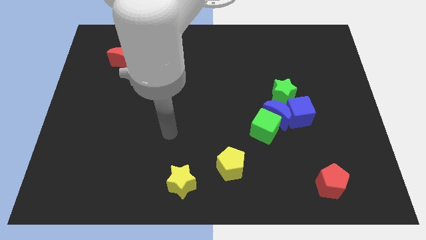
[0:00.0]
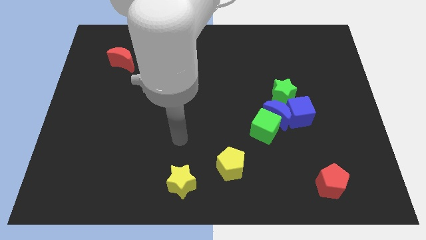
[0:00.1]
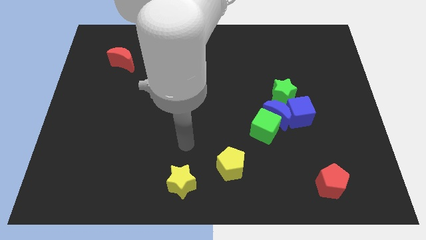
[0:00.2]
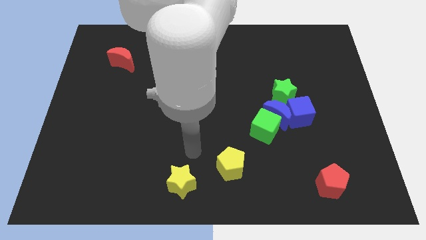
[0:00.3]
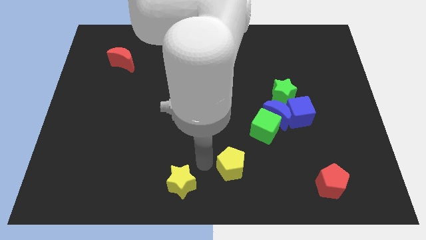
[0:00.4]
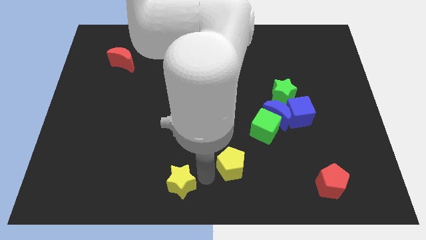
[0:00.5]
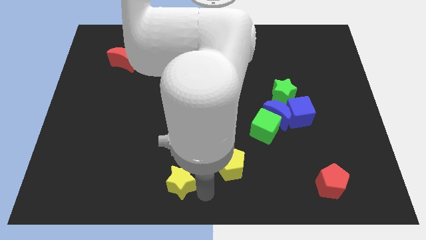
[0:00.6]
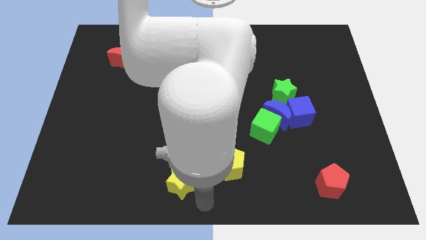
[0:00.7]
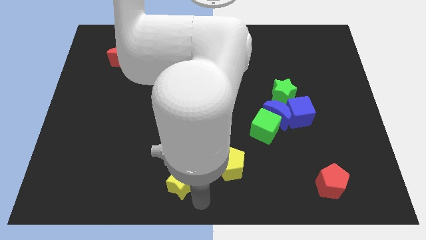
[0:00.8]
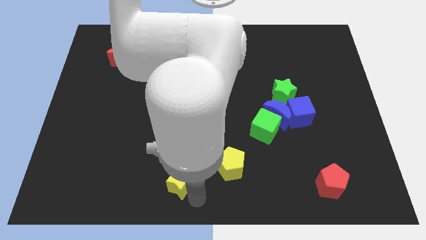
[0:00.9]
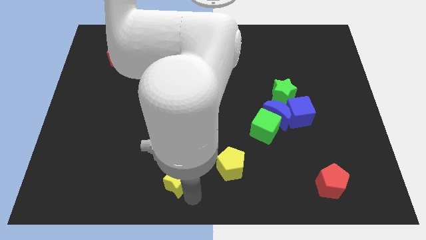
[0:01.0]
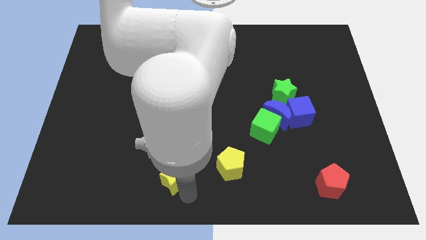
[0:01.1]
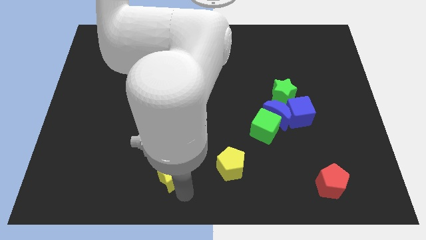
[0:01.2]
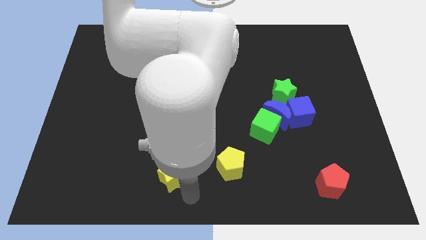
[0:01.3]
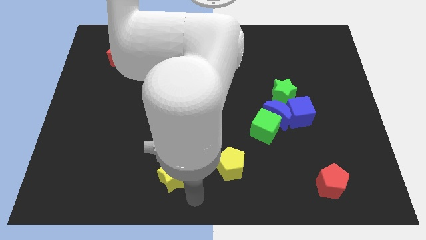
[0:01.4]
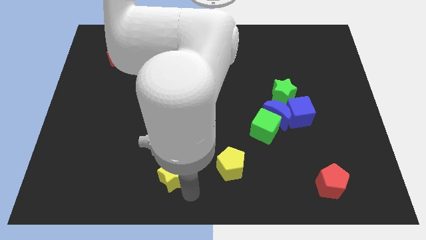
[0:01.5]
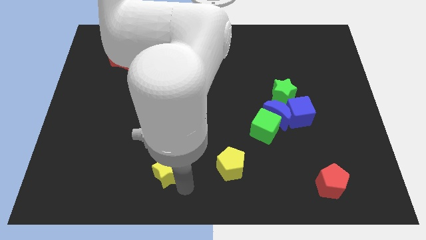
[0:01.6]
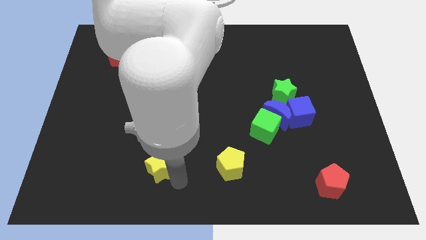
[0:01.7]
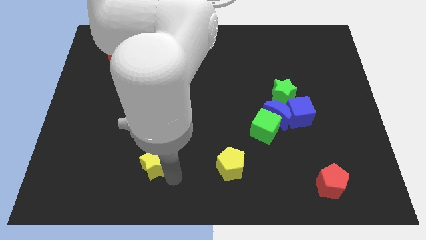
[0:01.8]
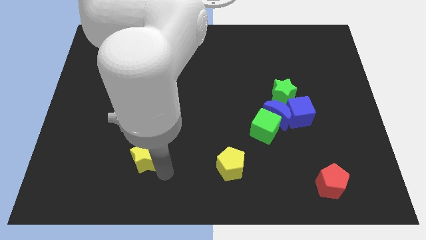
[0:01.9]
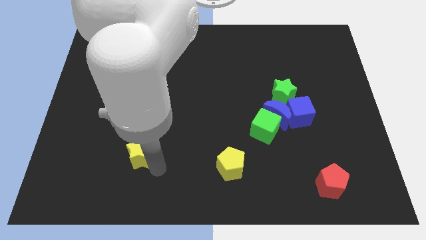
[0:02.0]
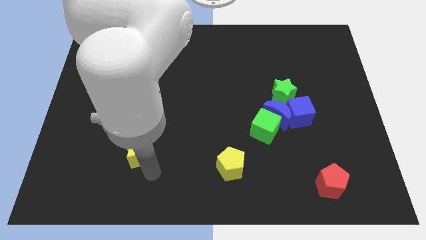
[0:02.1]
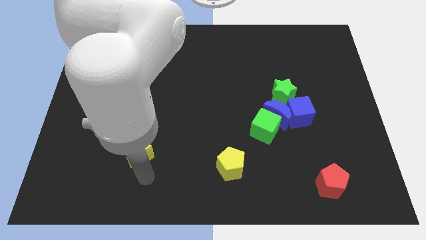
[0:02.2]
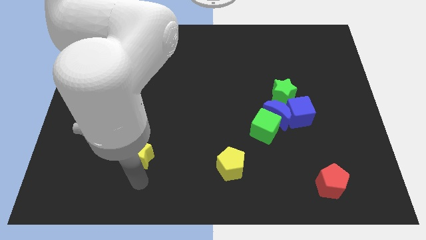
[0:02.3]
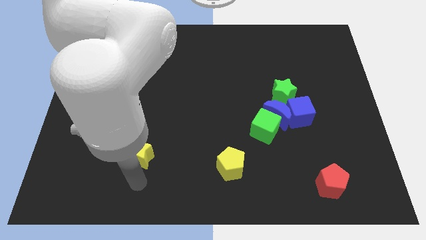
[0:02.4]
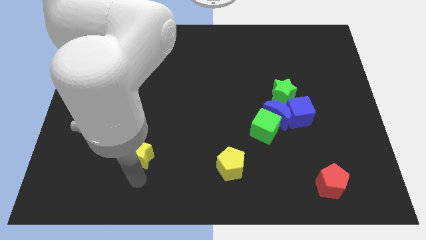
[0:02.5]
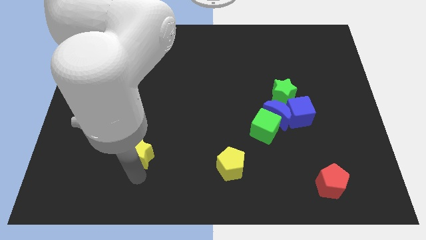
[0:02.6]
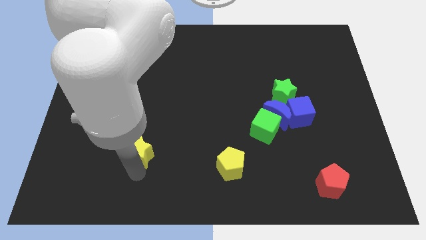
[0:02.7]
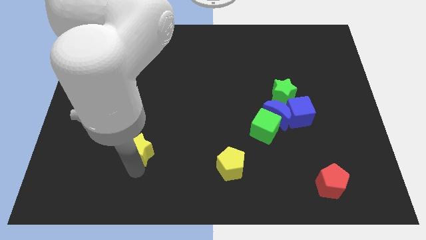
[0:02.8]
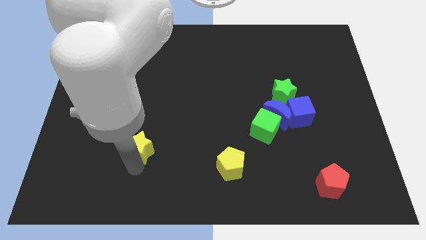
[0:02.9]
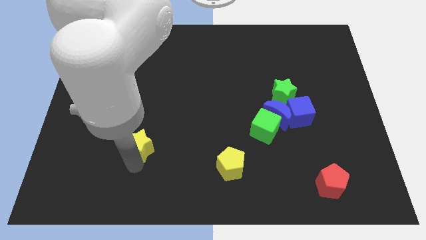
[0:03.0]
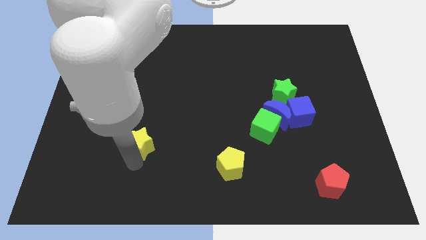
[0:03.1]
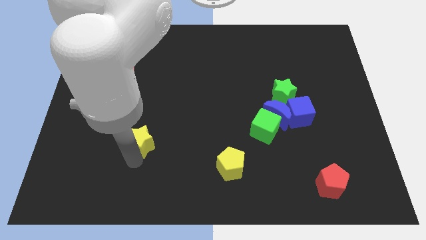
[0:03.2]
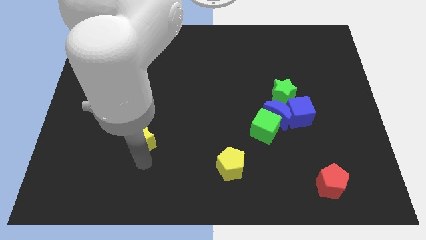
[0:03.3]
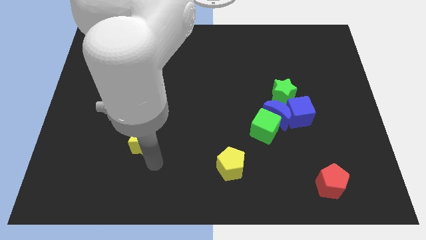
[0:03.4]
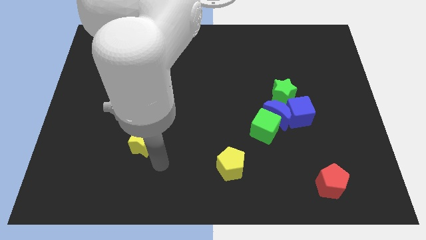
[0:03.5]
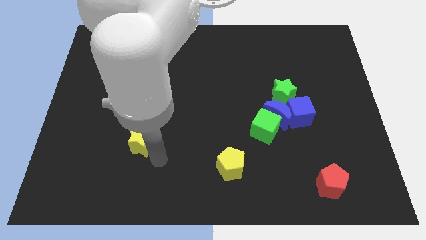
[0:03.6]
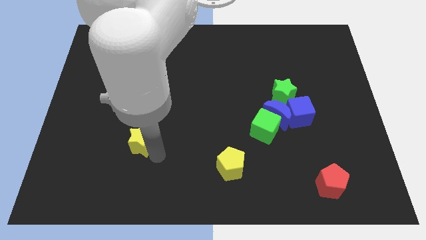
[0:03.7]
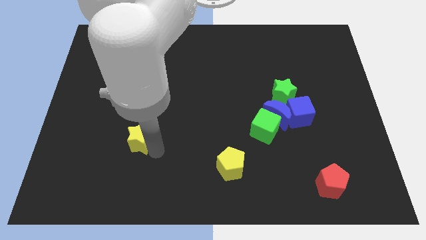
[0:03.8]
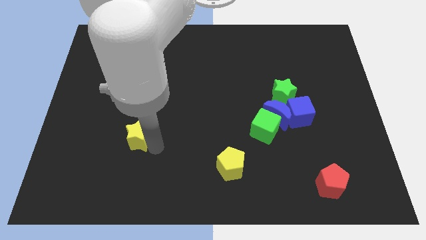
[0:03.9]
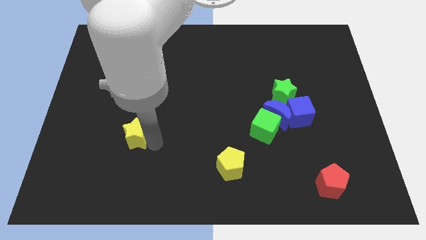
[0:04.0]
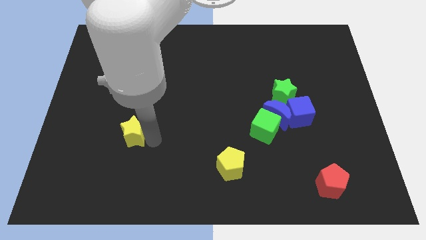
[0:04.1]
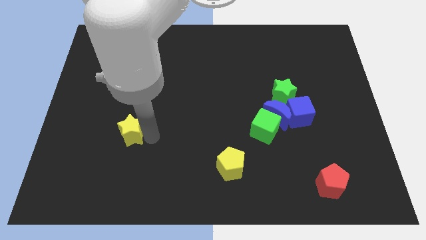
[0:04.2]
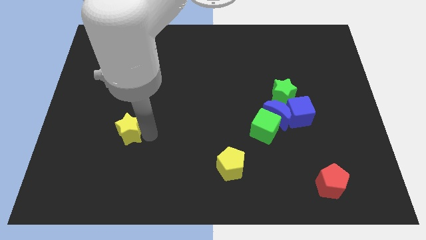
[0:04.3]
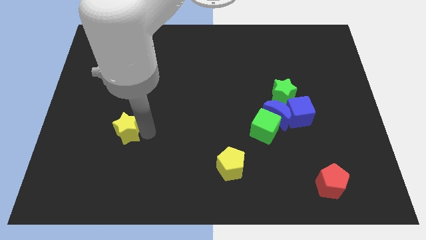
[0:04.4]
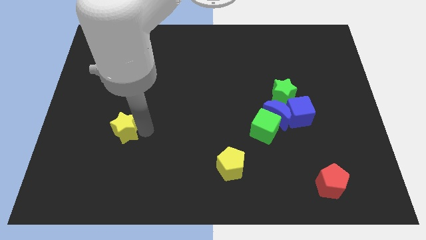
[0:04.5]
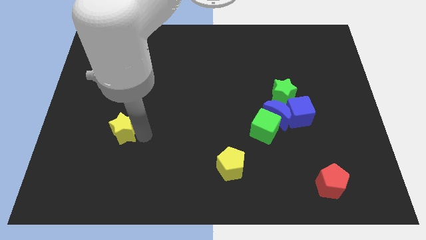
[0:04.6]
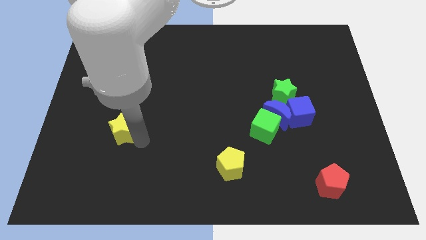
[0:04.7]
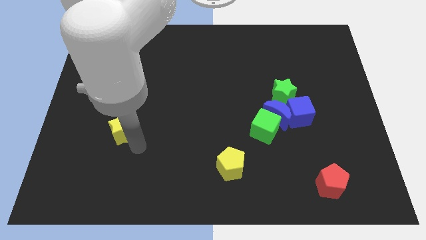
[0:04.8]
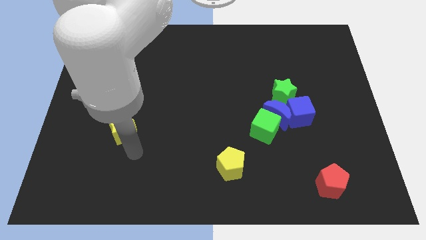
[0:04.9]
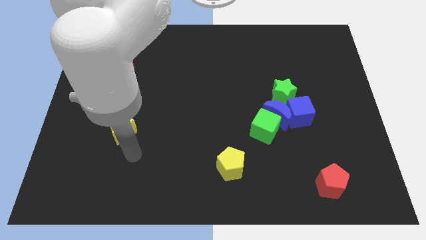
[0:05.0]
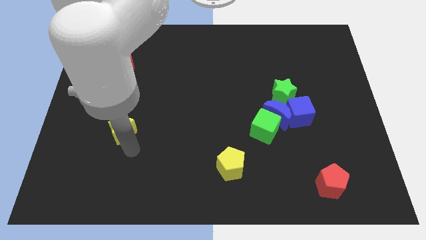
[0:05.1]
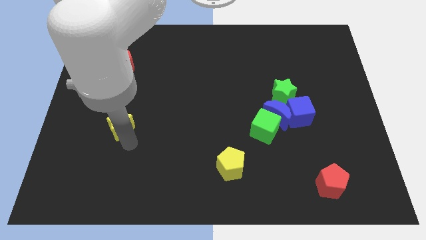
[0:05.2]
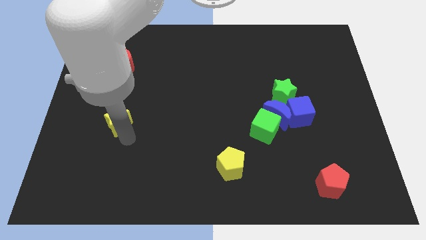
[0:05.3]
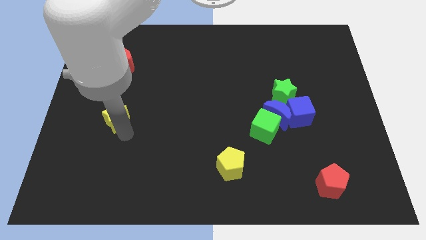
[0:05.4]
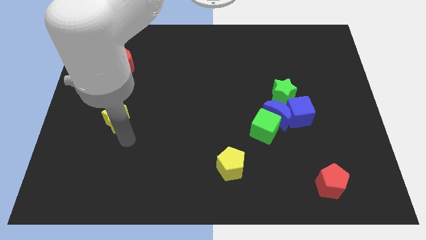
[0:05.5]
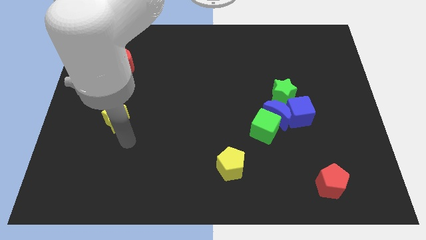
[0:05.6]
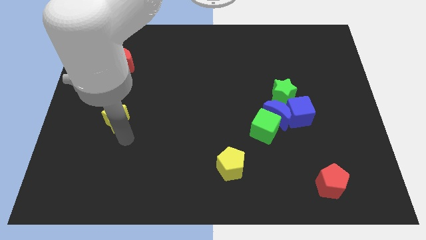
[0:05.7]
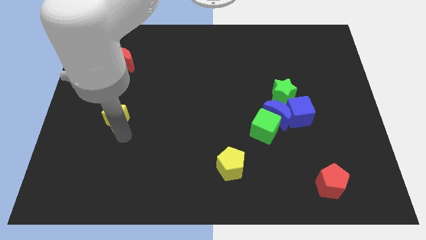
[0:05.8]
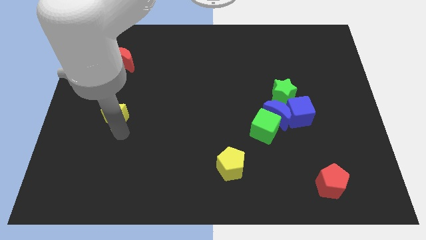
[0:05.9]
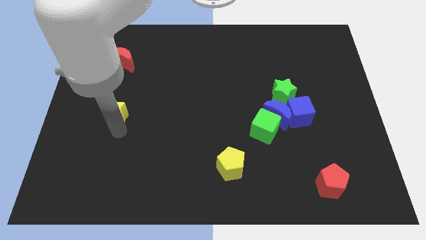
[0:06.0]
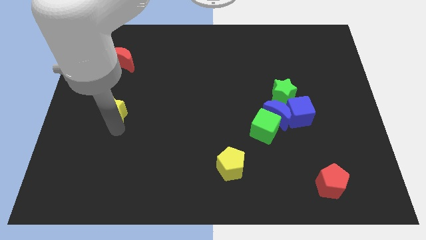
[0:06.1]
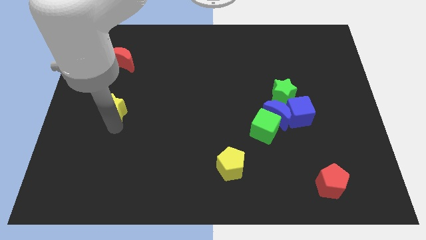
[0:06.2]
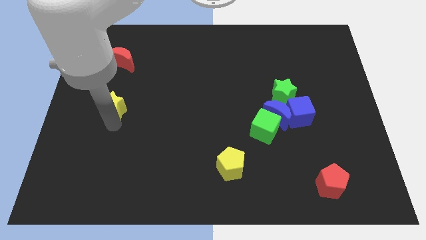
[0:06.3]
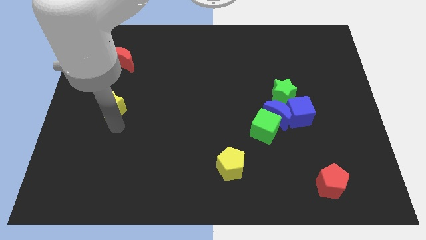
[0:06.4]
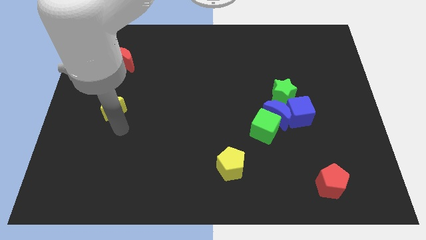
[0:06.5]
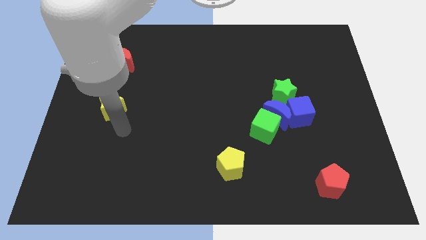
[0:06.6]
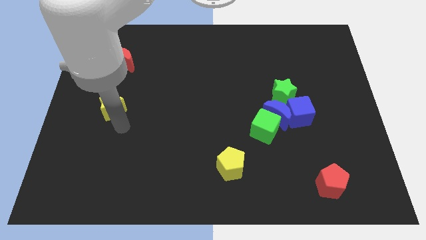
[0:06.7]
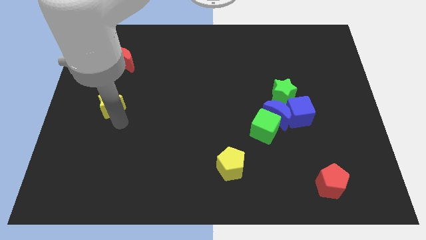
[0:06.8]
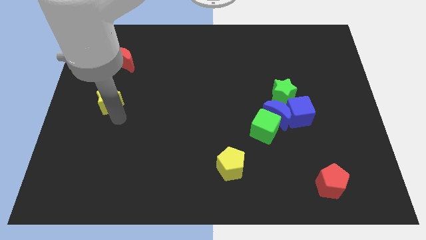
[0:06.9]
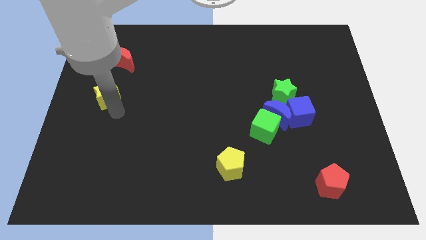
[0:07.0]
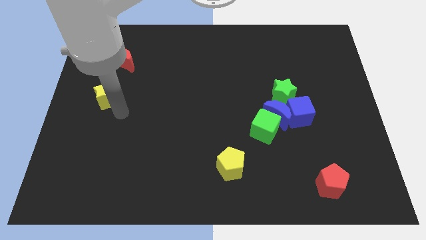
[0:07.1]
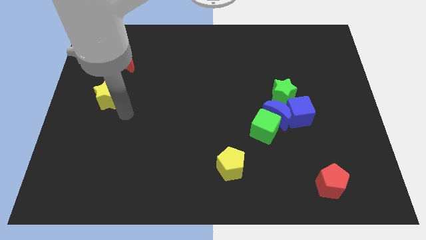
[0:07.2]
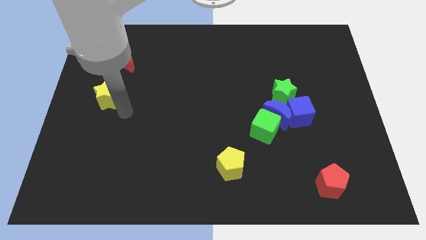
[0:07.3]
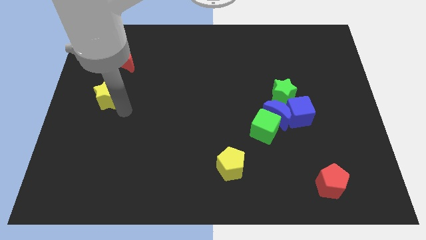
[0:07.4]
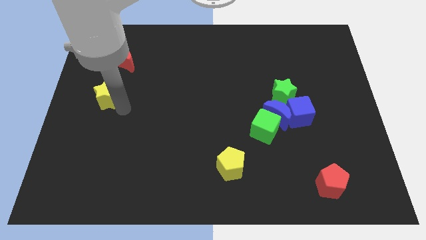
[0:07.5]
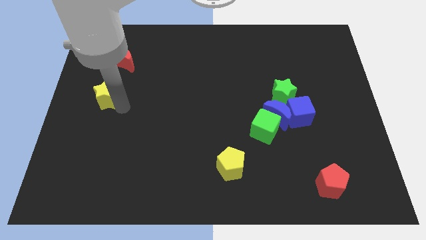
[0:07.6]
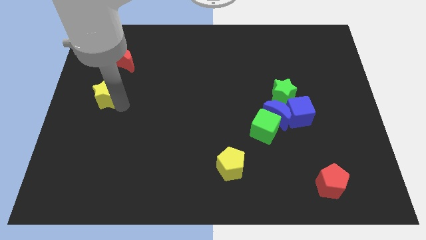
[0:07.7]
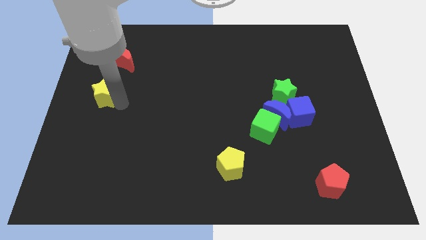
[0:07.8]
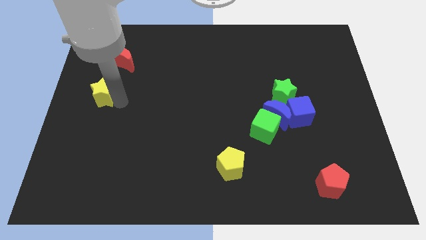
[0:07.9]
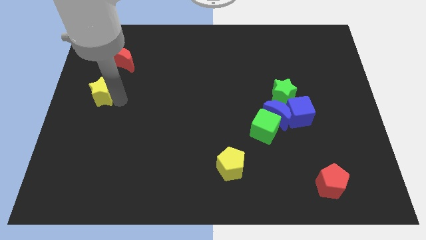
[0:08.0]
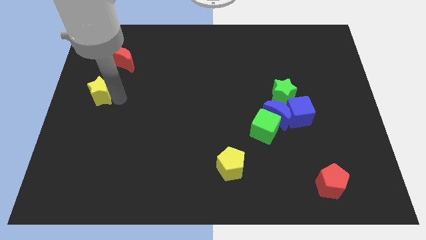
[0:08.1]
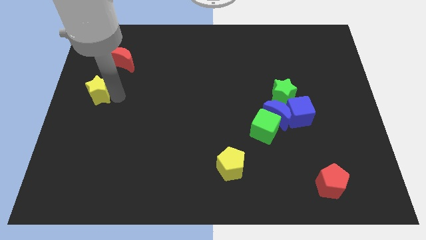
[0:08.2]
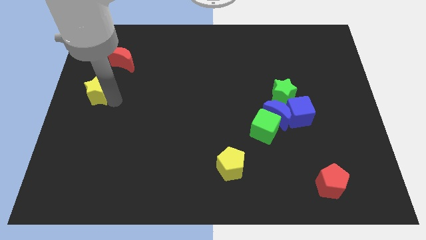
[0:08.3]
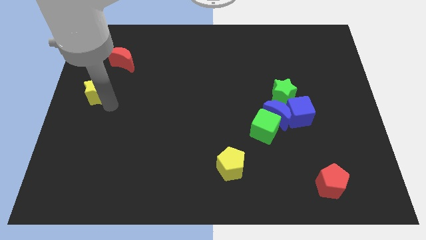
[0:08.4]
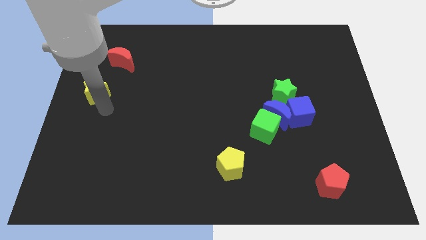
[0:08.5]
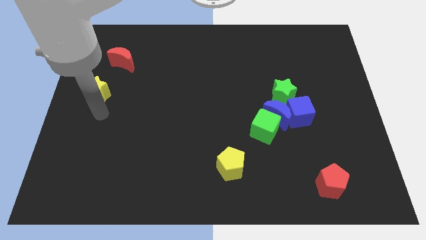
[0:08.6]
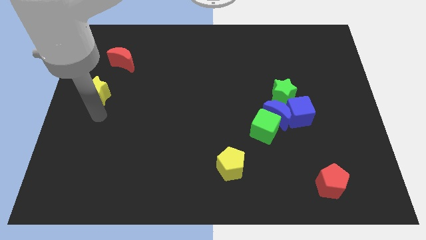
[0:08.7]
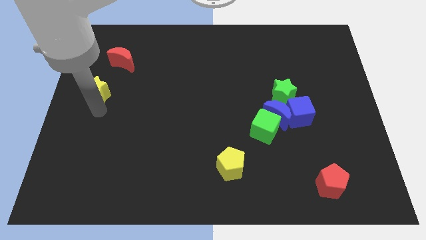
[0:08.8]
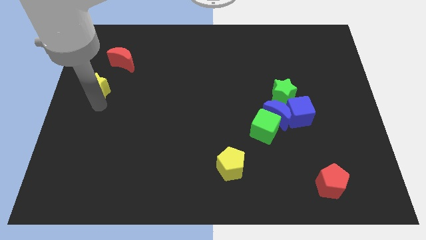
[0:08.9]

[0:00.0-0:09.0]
move the yellow star to the bottom left side of the red moon
